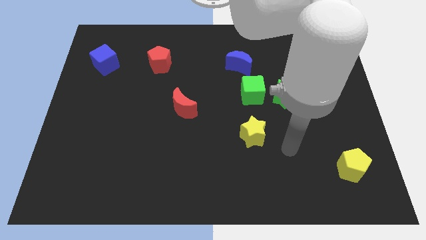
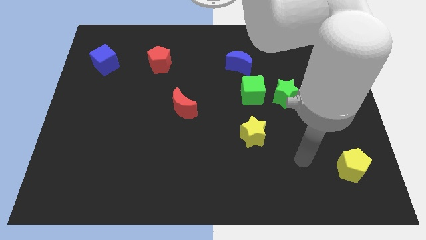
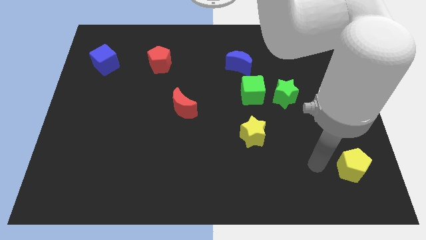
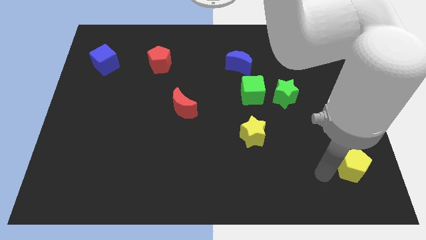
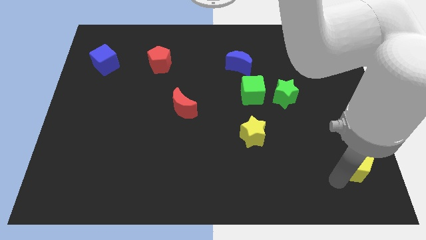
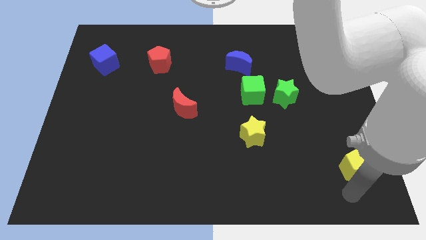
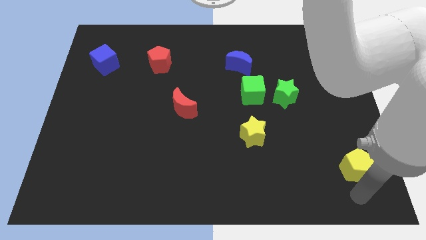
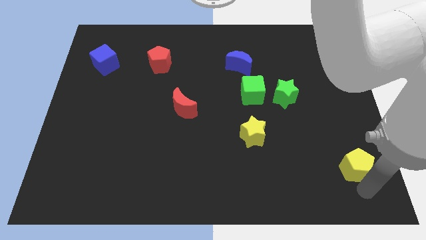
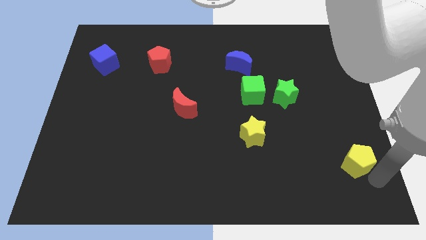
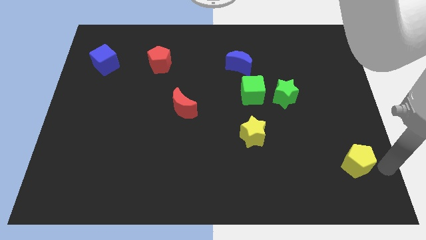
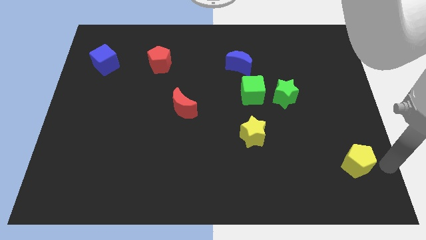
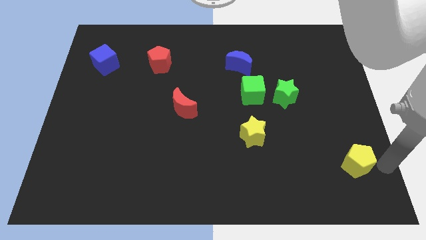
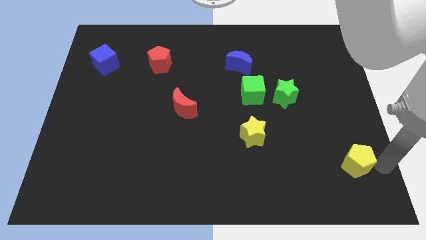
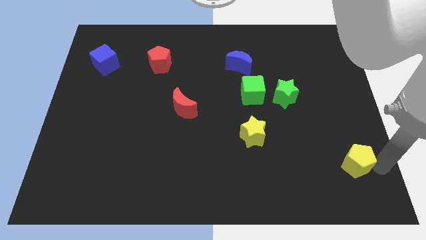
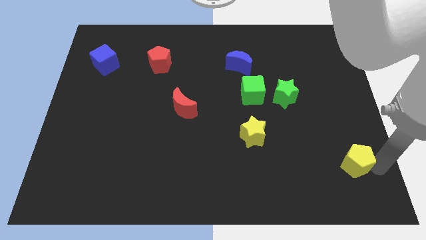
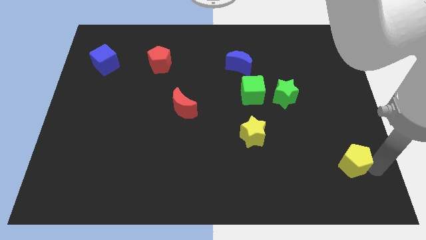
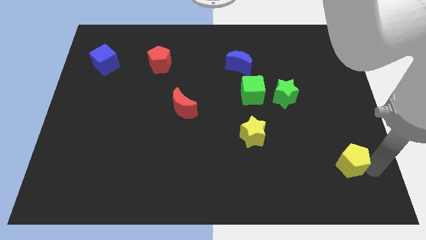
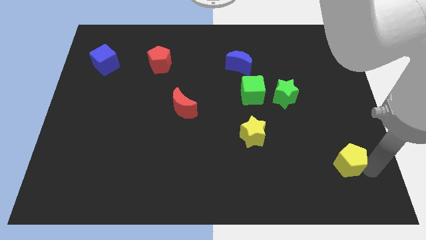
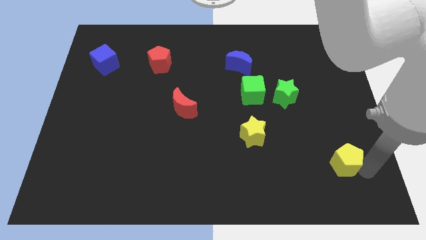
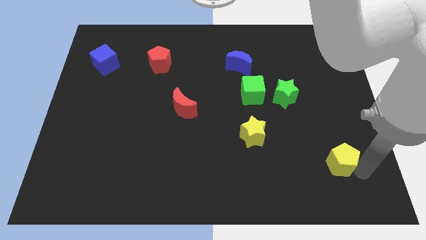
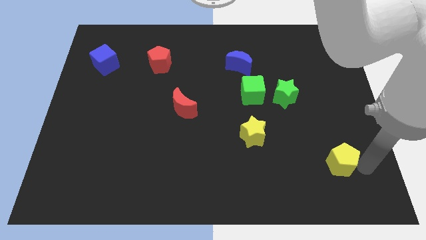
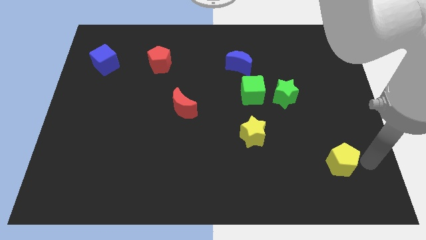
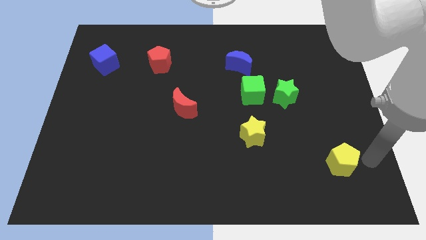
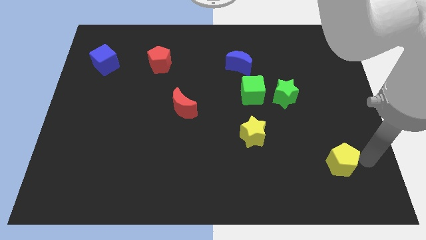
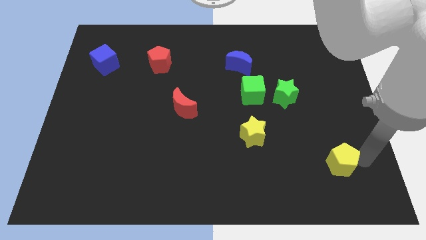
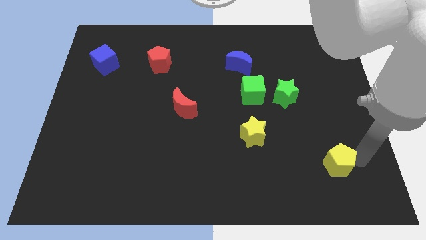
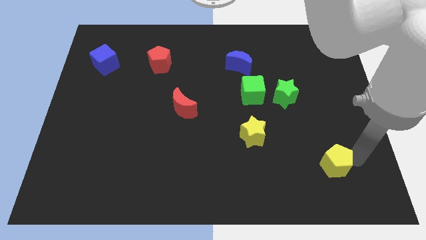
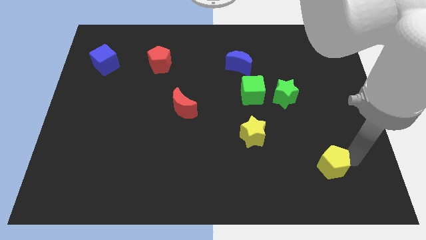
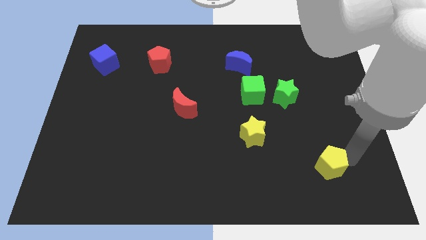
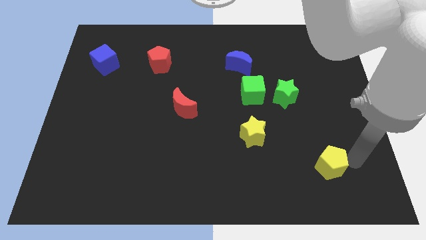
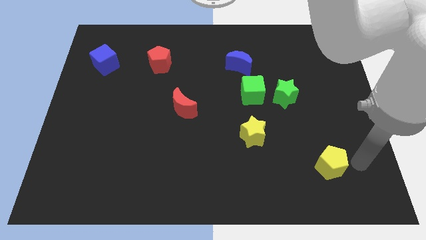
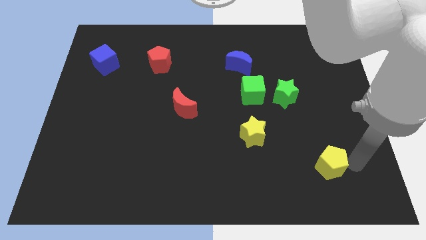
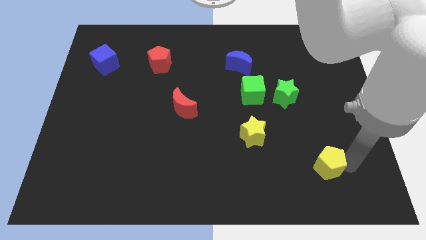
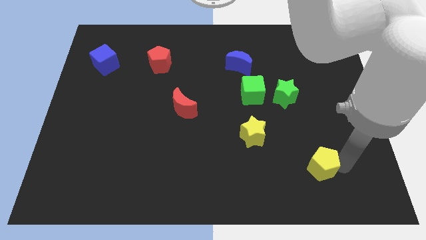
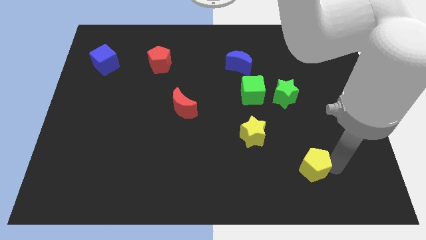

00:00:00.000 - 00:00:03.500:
slide the yellow pentagon a little bit to the left

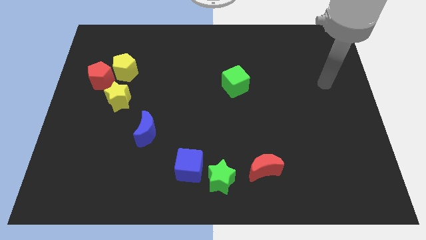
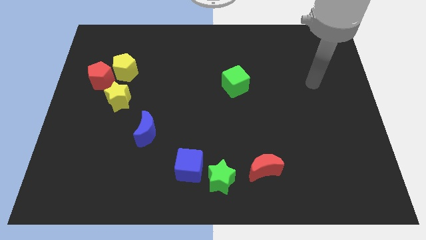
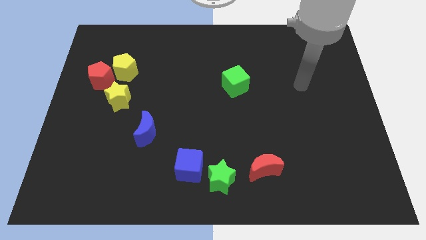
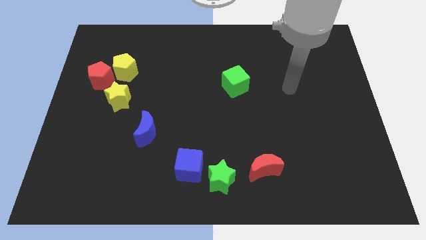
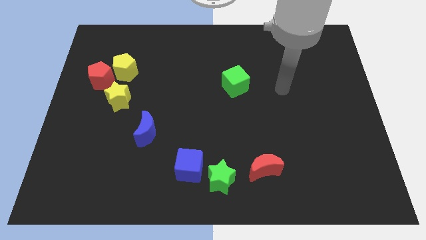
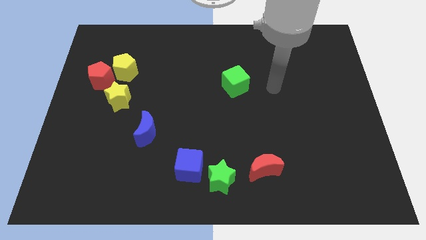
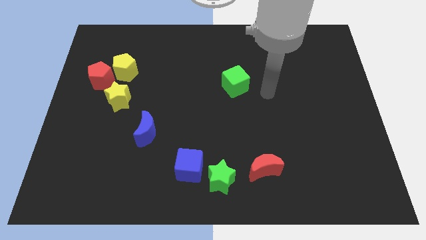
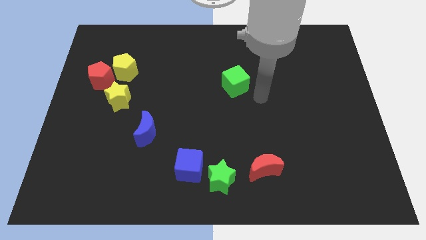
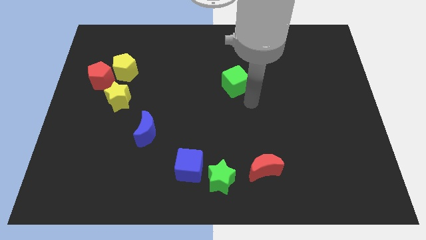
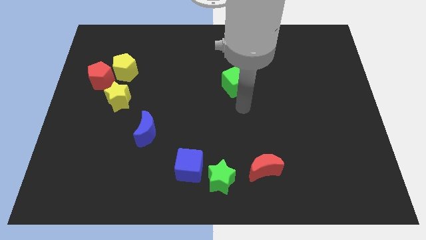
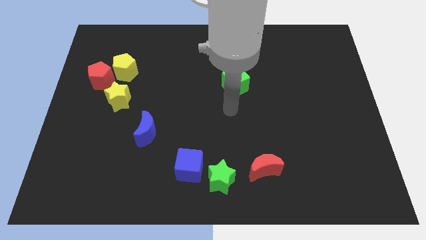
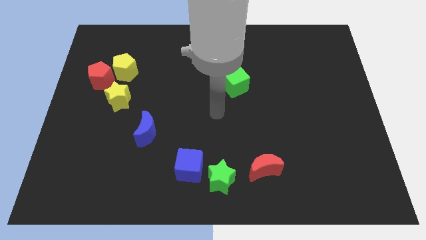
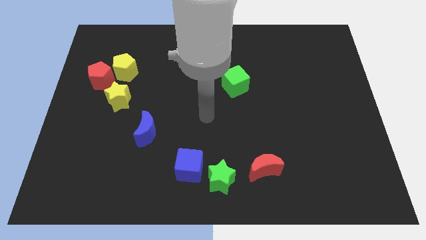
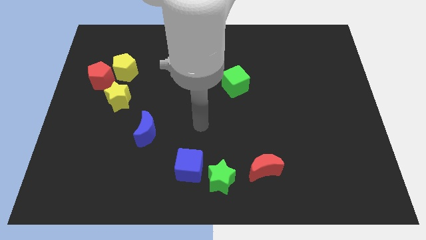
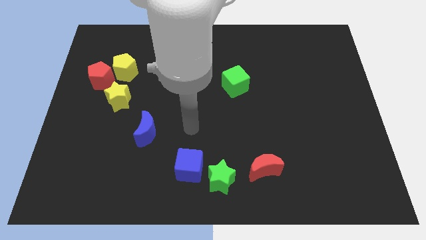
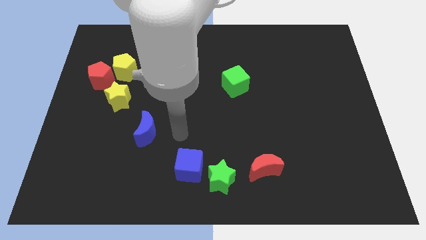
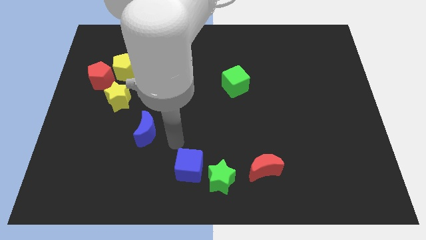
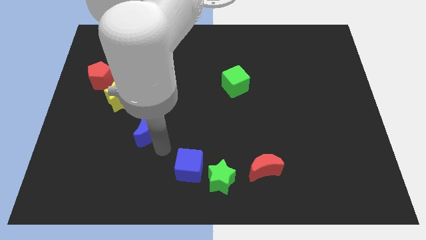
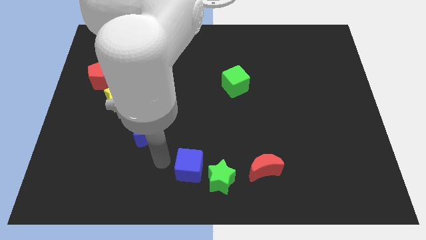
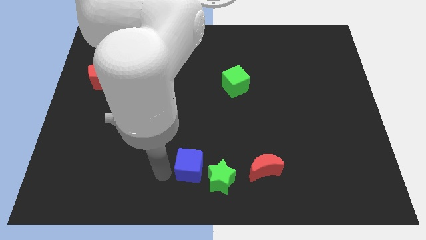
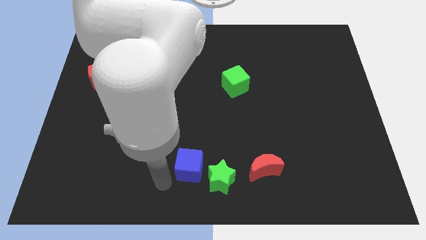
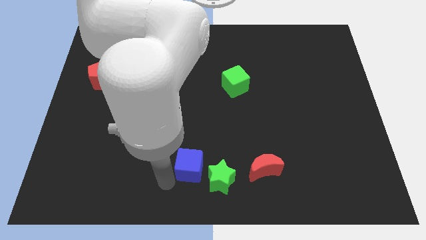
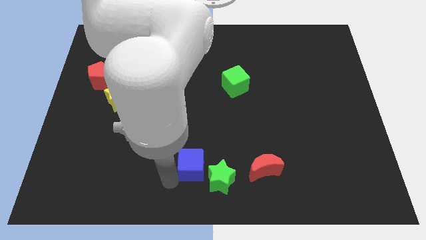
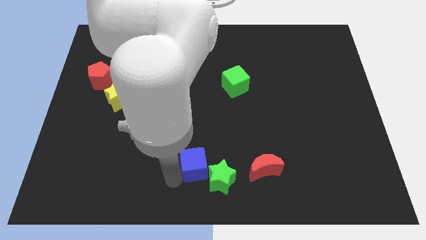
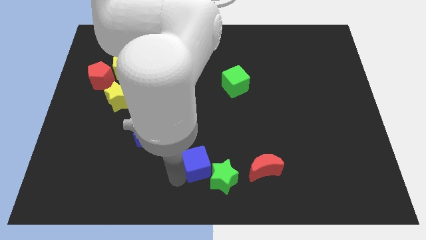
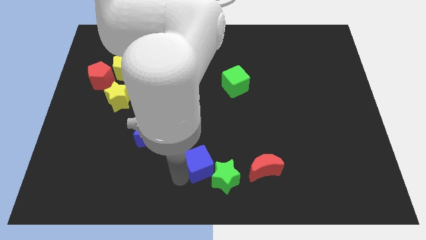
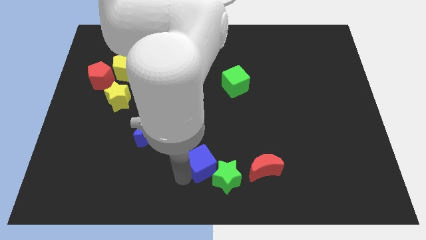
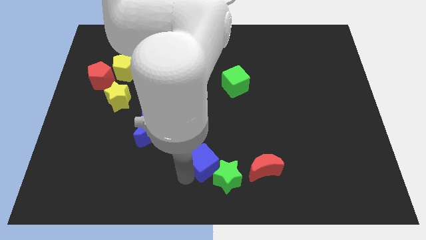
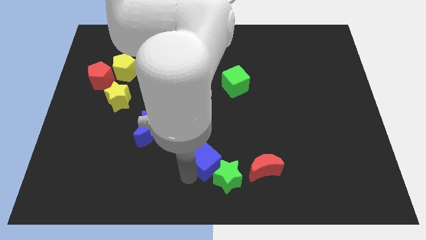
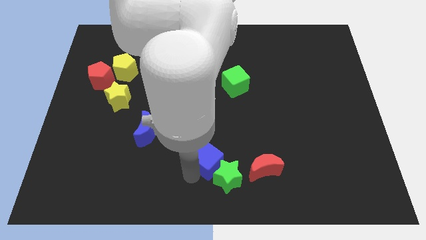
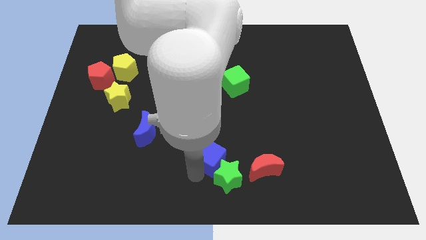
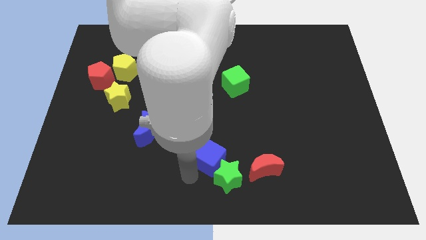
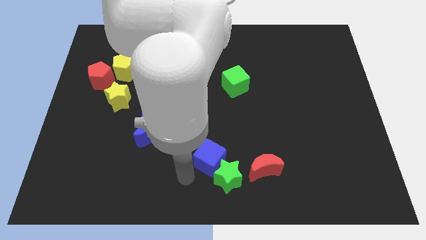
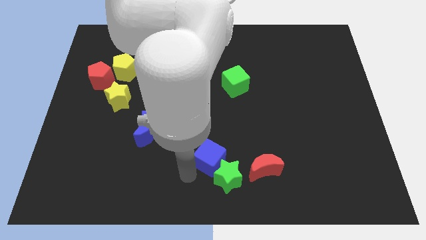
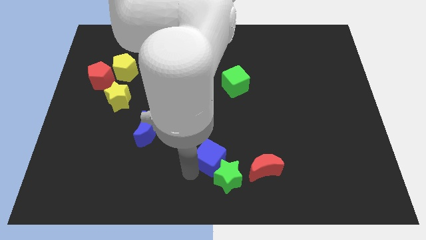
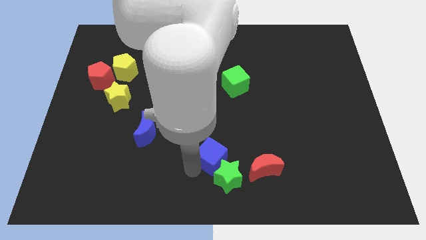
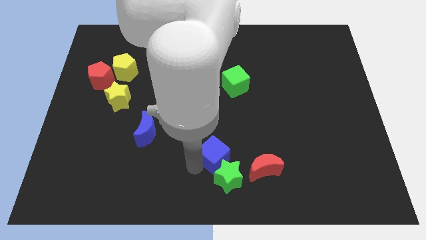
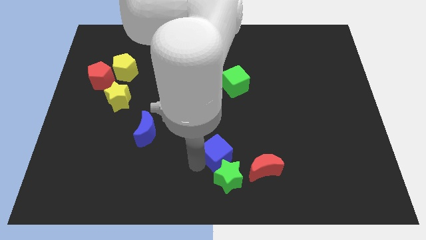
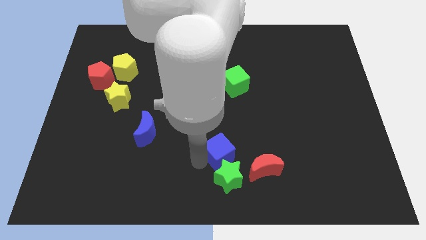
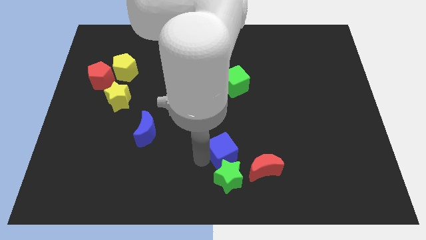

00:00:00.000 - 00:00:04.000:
slide the blue cube upwards and then to the right a little

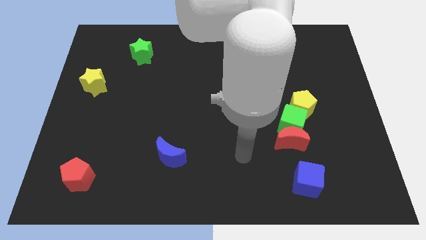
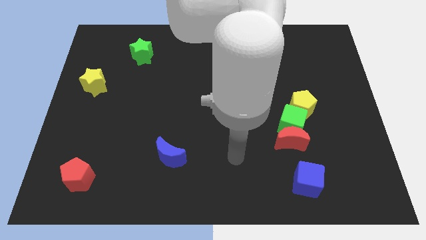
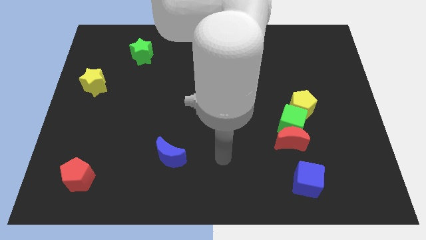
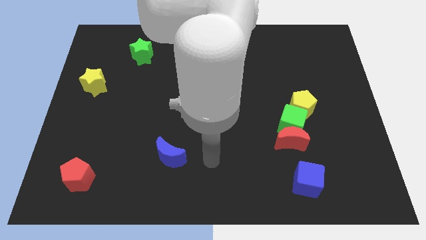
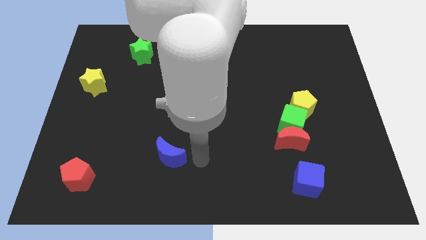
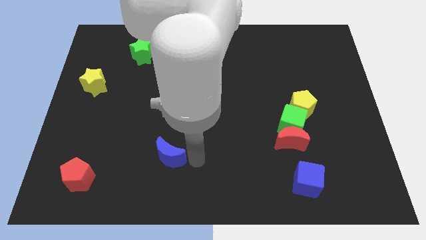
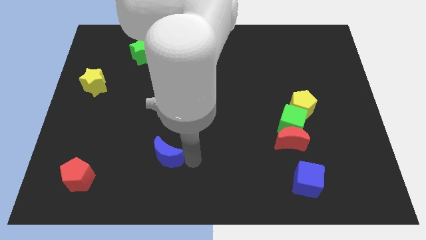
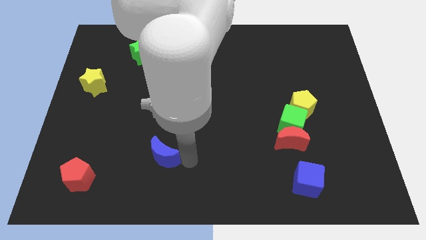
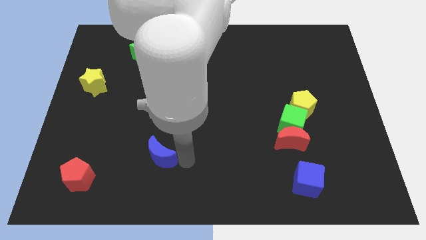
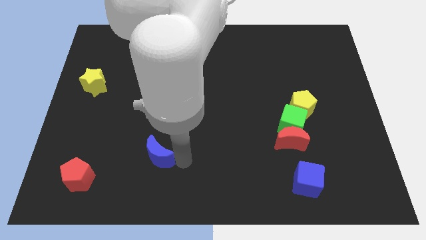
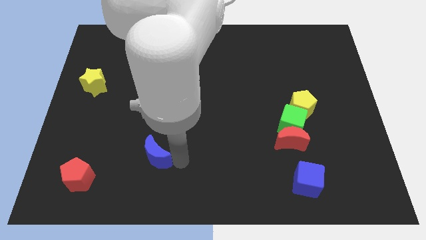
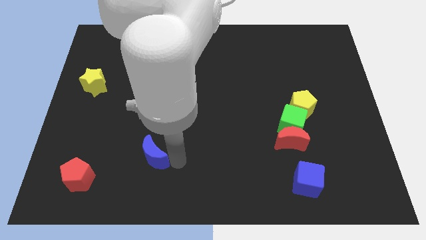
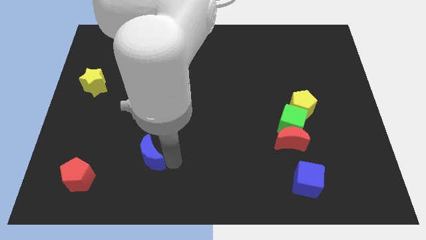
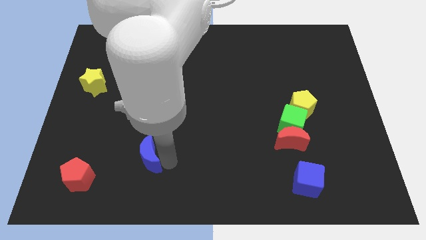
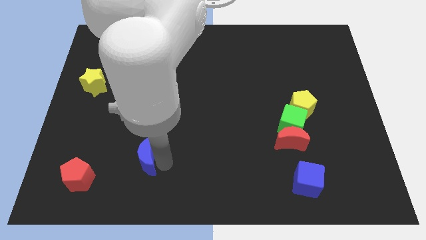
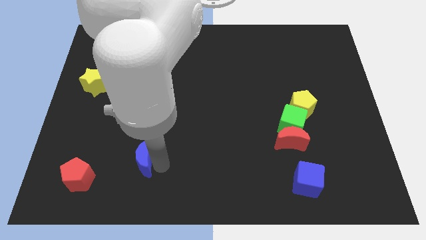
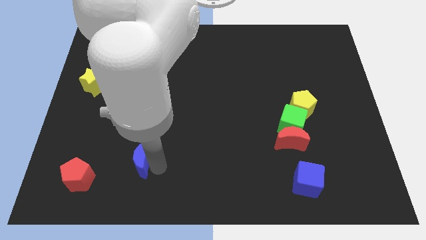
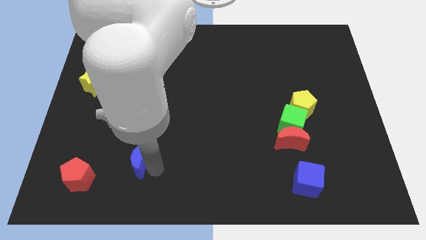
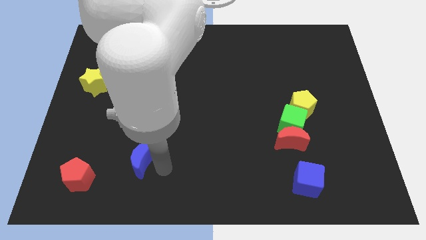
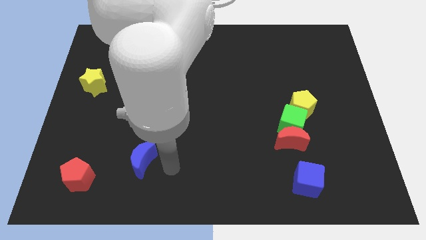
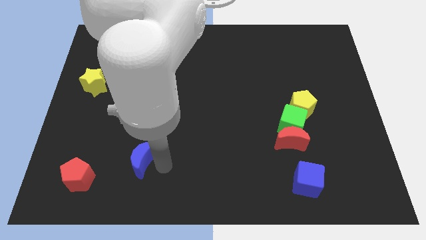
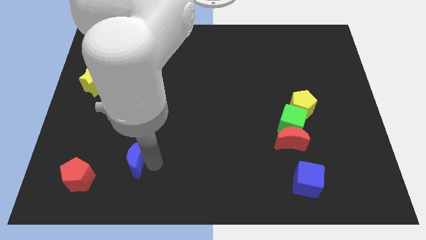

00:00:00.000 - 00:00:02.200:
slightly slide the blue moon left
